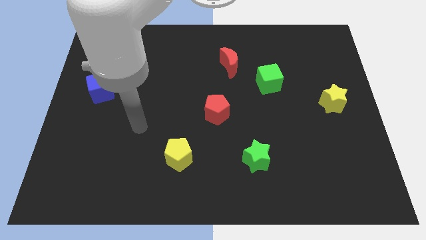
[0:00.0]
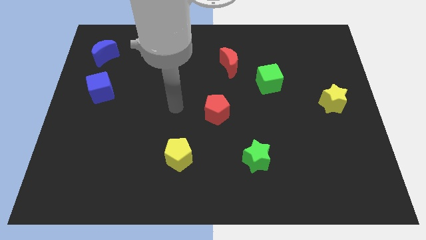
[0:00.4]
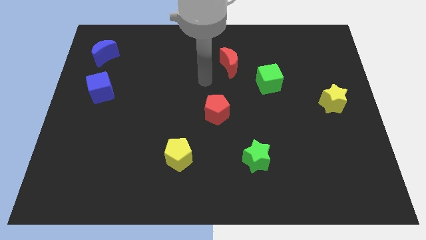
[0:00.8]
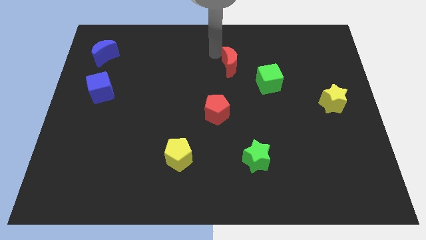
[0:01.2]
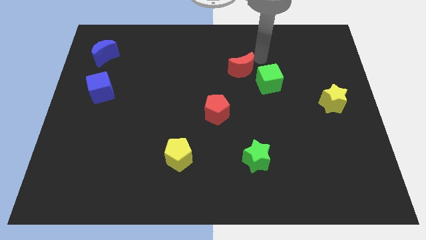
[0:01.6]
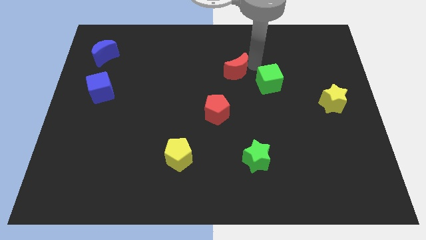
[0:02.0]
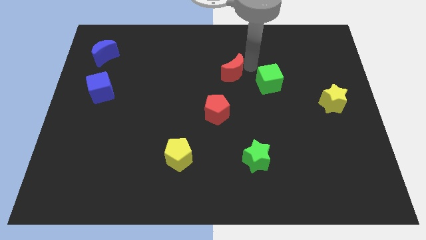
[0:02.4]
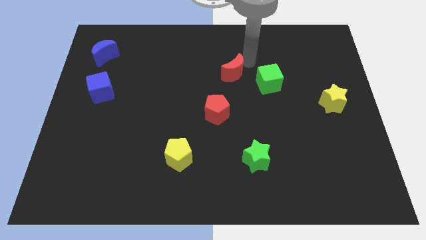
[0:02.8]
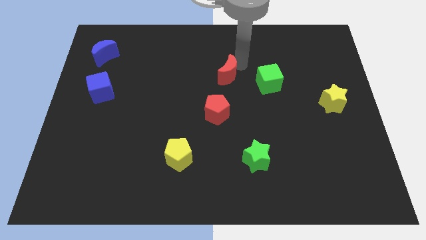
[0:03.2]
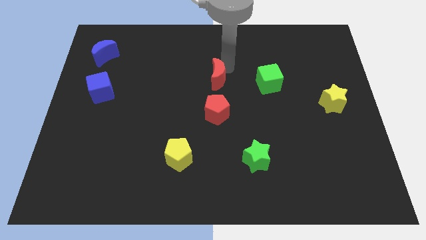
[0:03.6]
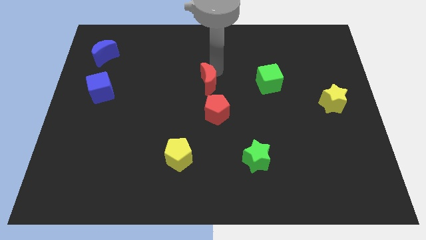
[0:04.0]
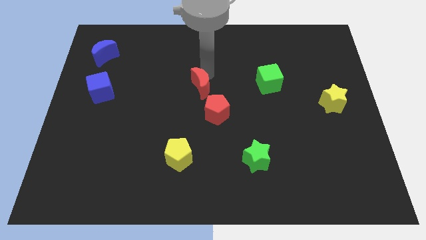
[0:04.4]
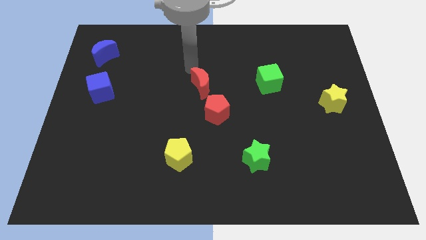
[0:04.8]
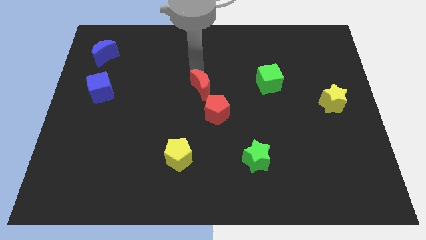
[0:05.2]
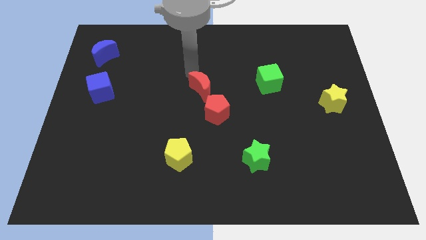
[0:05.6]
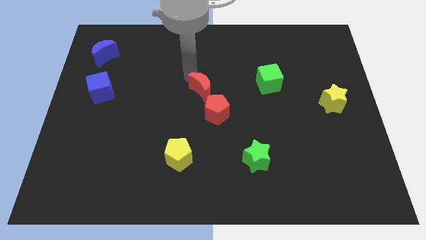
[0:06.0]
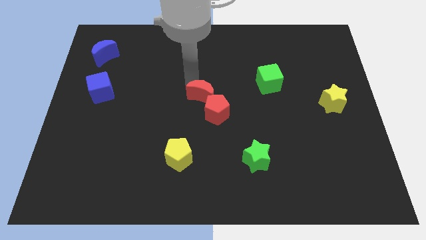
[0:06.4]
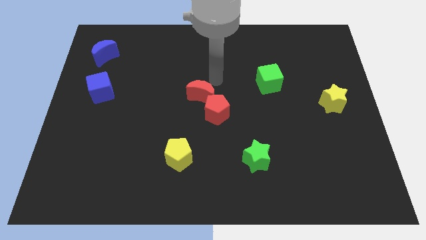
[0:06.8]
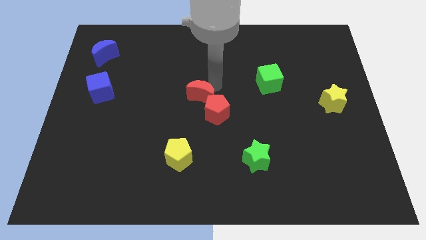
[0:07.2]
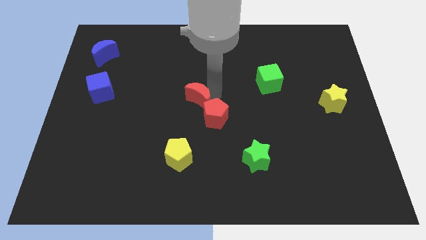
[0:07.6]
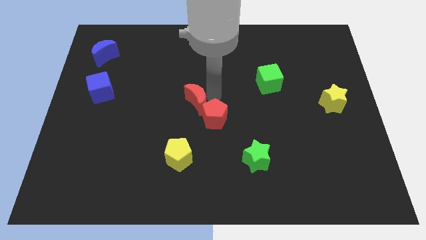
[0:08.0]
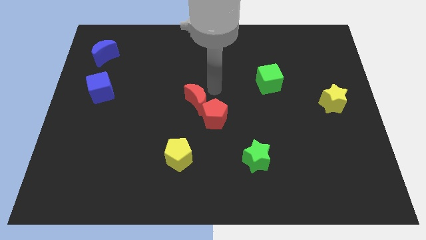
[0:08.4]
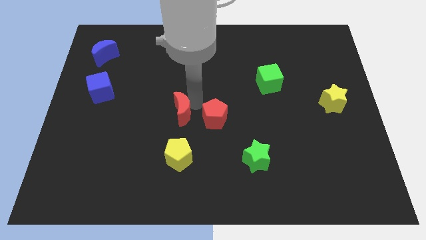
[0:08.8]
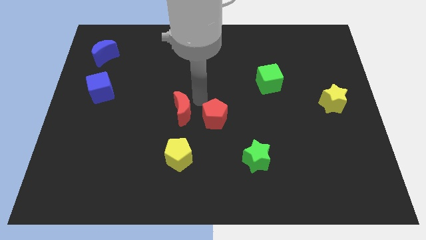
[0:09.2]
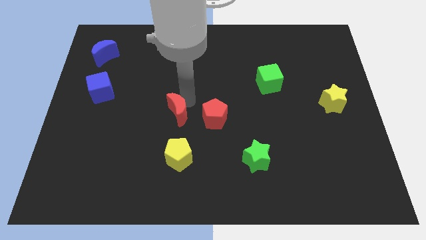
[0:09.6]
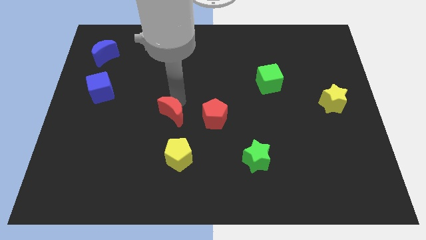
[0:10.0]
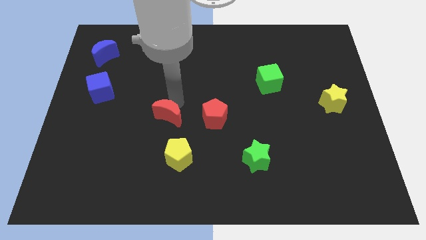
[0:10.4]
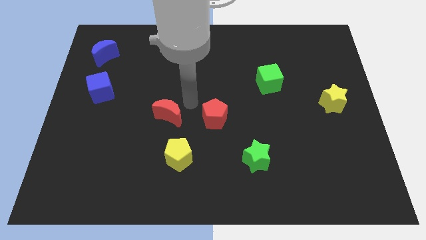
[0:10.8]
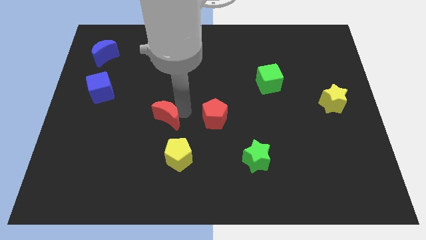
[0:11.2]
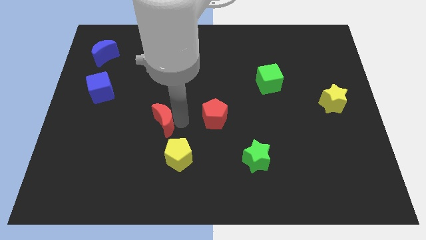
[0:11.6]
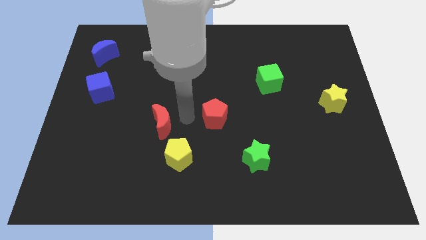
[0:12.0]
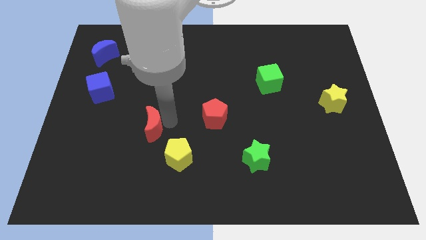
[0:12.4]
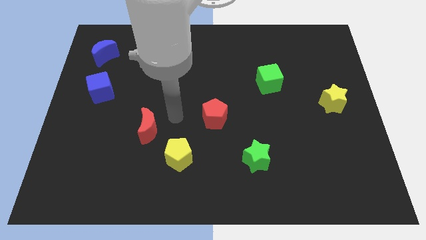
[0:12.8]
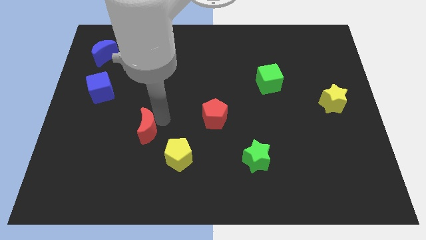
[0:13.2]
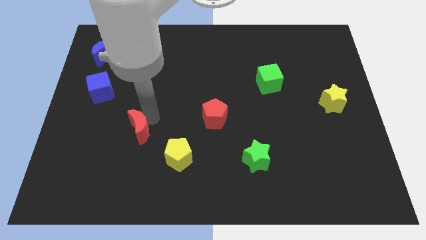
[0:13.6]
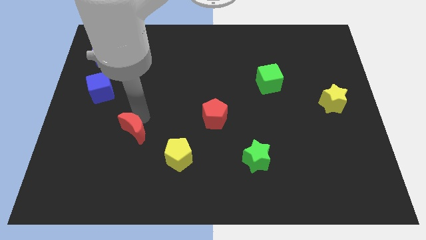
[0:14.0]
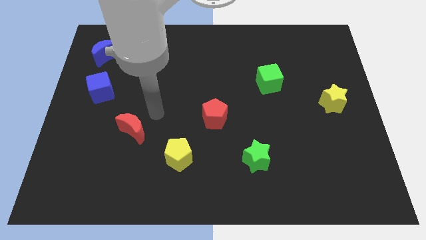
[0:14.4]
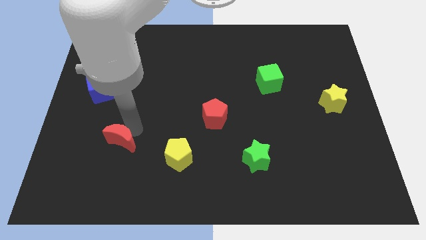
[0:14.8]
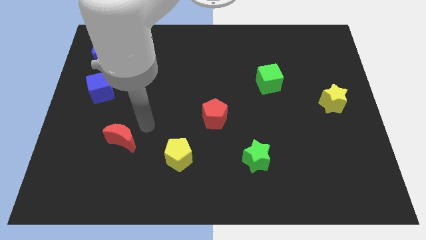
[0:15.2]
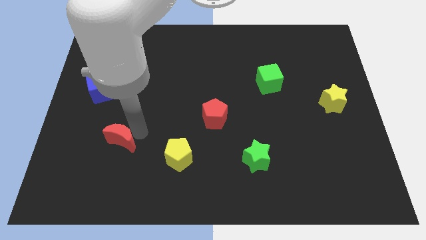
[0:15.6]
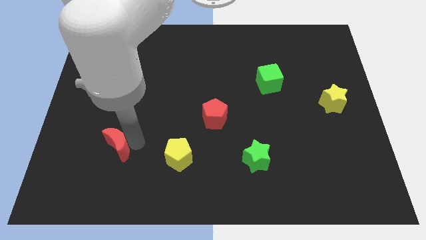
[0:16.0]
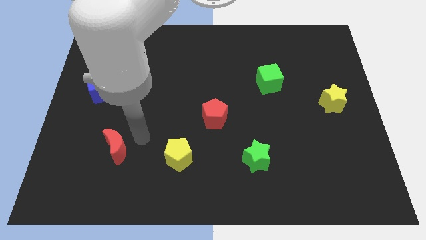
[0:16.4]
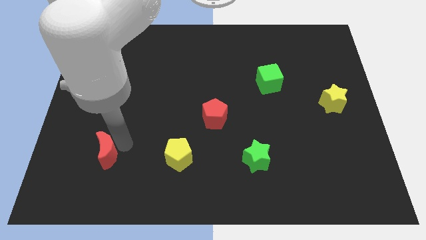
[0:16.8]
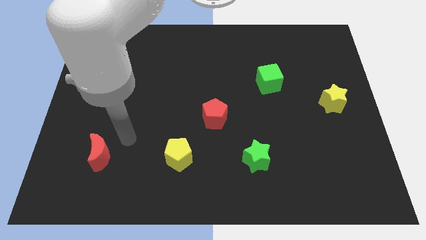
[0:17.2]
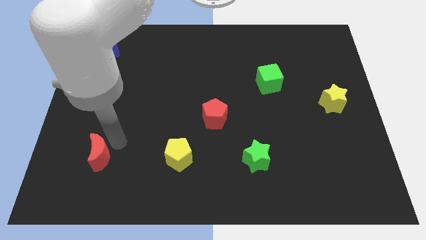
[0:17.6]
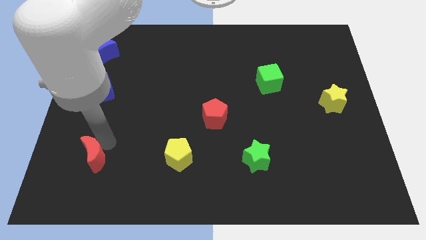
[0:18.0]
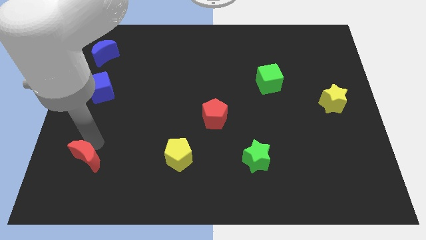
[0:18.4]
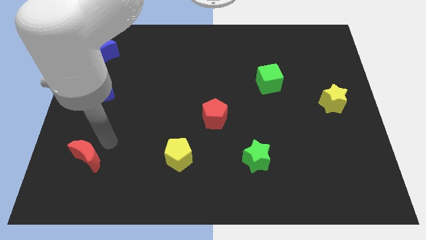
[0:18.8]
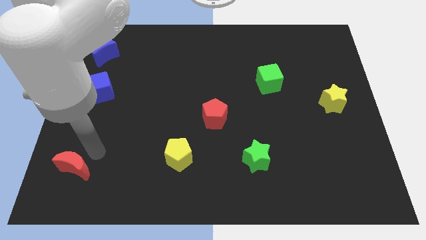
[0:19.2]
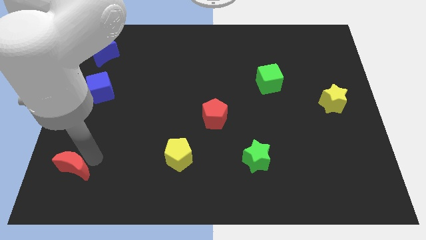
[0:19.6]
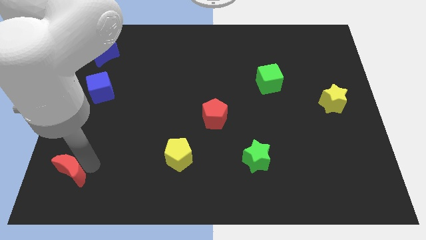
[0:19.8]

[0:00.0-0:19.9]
push the red moon to the bottom left of the board

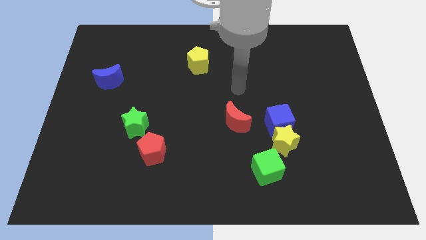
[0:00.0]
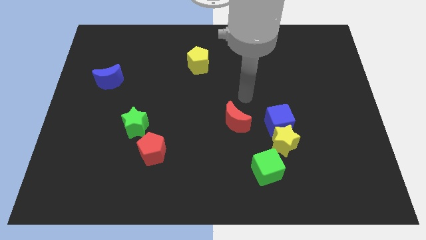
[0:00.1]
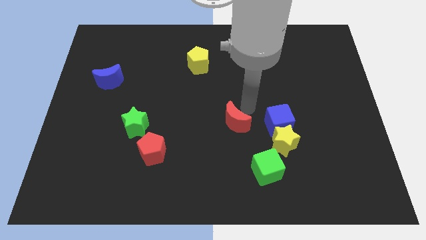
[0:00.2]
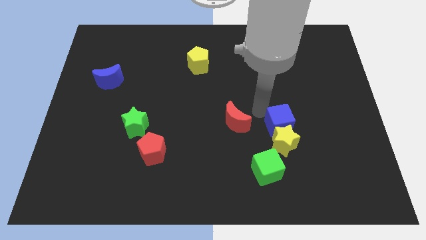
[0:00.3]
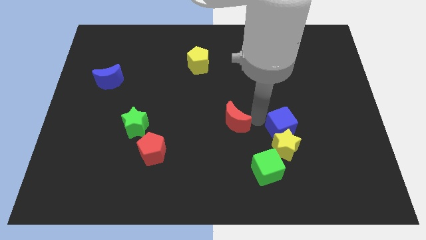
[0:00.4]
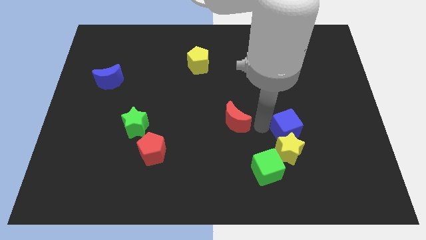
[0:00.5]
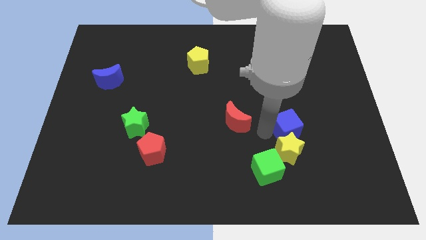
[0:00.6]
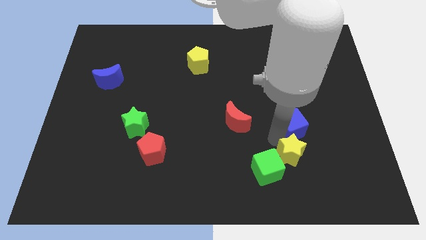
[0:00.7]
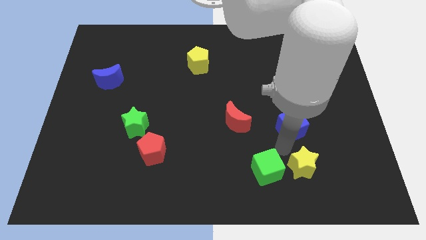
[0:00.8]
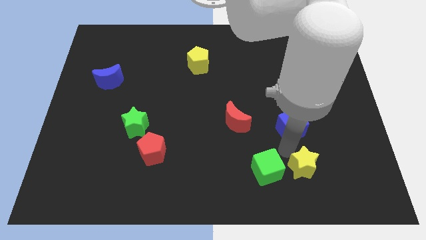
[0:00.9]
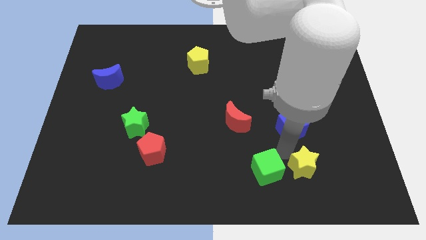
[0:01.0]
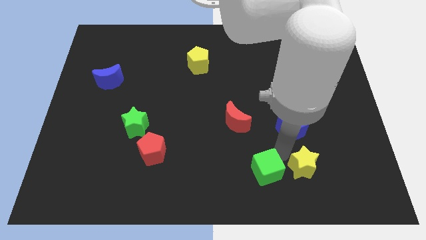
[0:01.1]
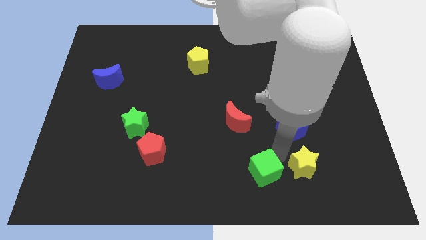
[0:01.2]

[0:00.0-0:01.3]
slide the green cube to the bottom side
